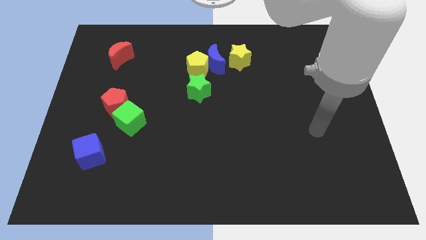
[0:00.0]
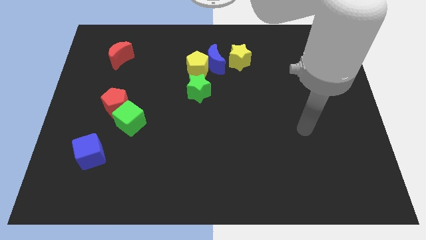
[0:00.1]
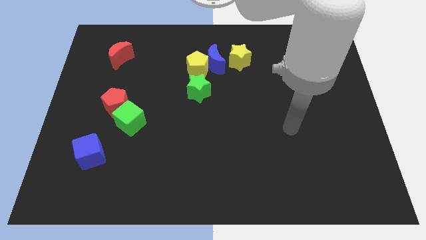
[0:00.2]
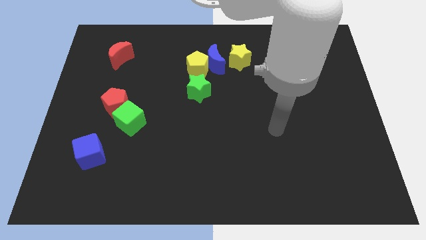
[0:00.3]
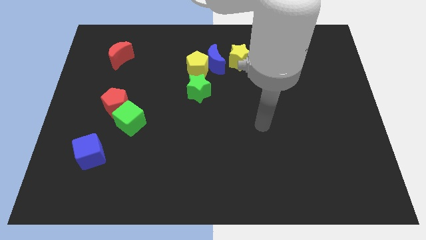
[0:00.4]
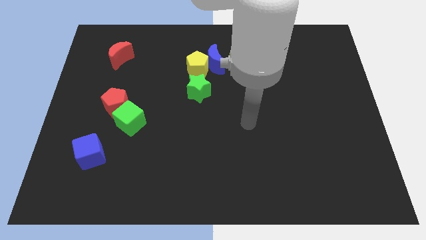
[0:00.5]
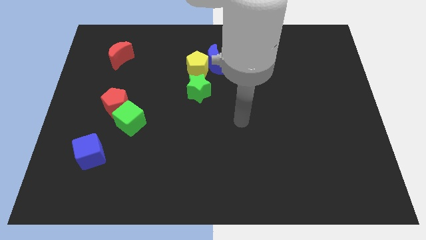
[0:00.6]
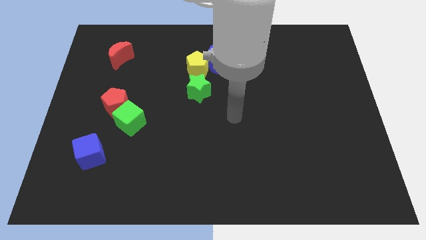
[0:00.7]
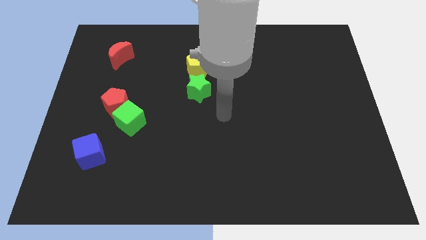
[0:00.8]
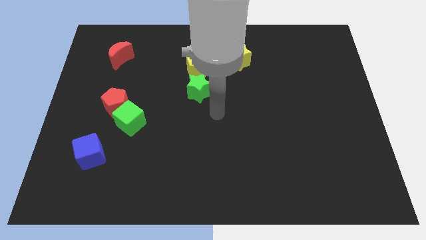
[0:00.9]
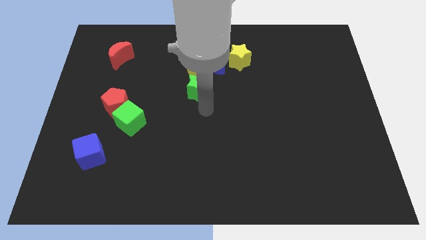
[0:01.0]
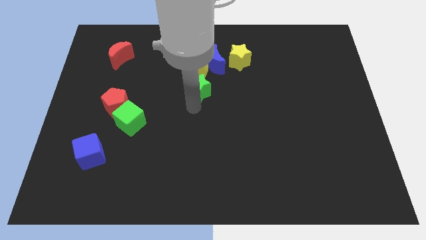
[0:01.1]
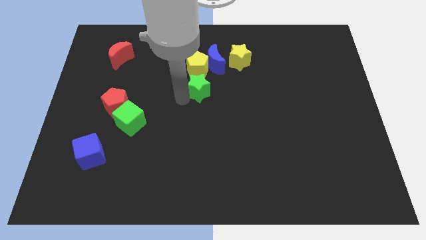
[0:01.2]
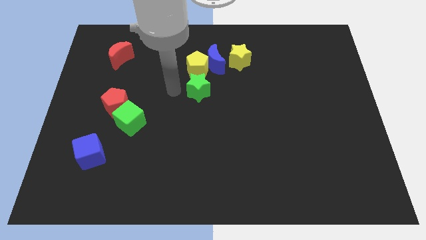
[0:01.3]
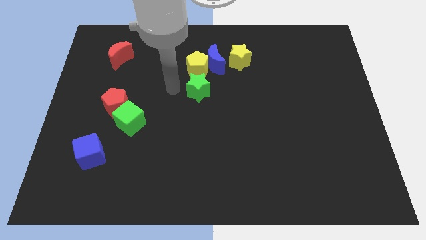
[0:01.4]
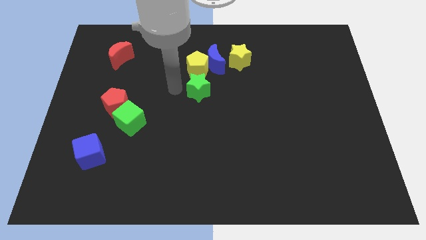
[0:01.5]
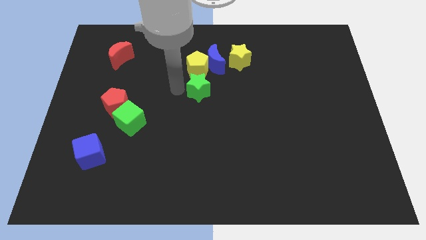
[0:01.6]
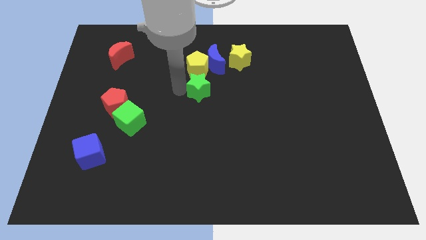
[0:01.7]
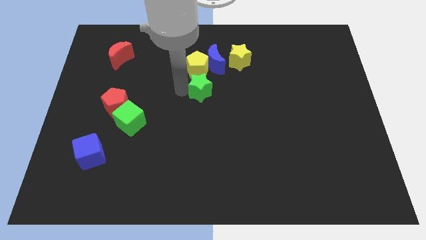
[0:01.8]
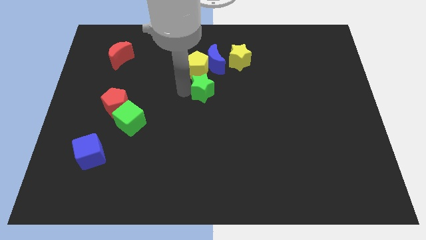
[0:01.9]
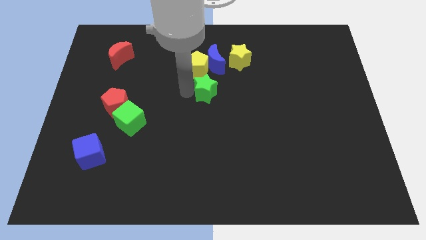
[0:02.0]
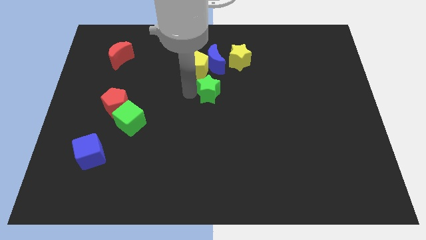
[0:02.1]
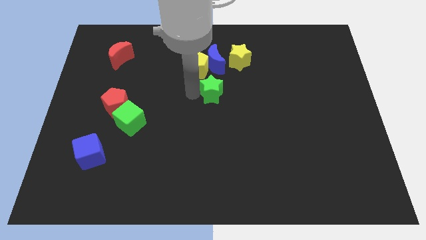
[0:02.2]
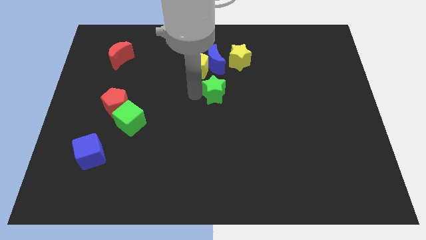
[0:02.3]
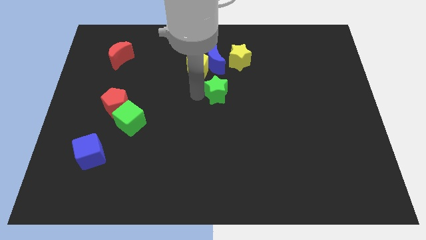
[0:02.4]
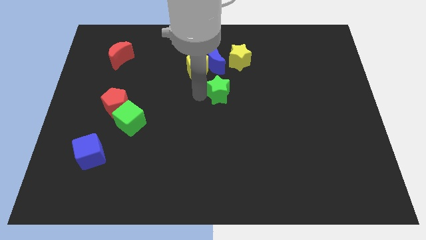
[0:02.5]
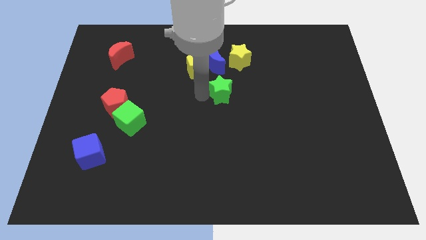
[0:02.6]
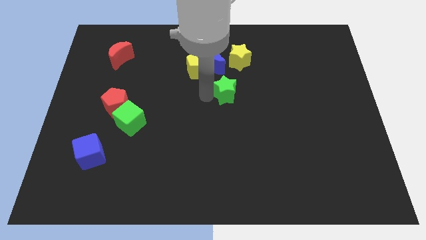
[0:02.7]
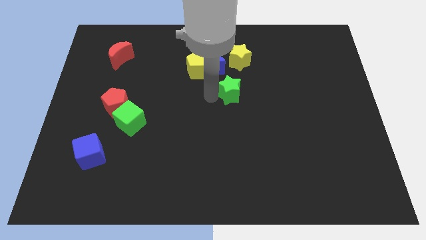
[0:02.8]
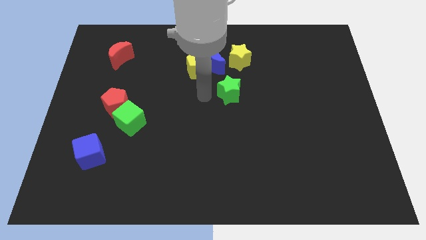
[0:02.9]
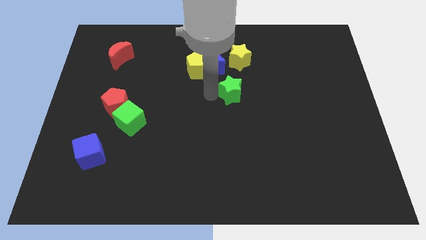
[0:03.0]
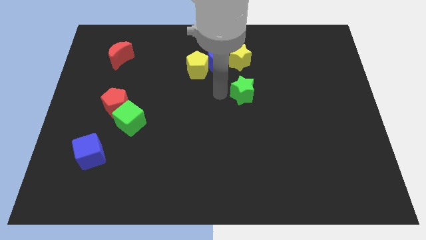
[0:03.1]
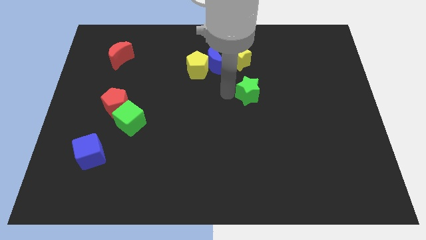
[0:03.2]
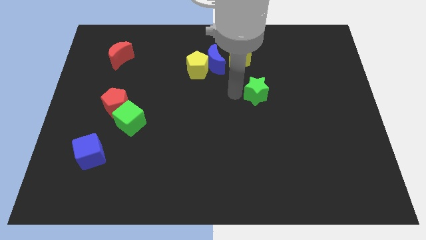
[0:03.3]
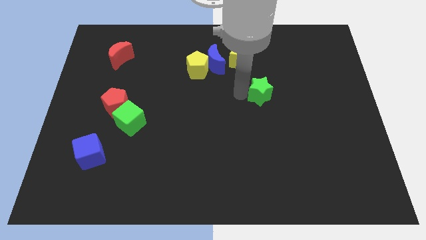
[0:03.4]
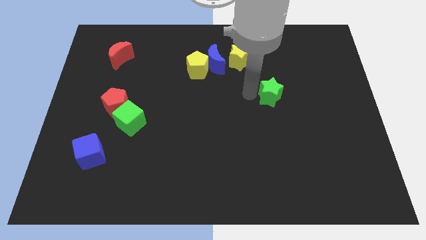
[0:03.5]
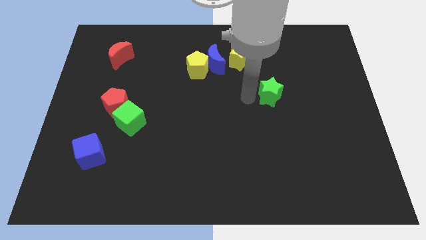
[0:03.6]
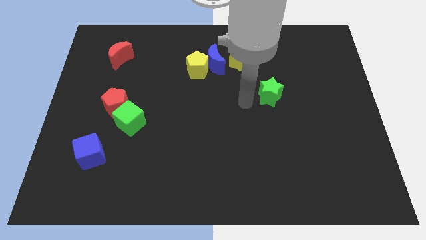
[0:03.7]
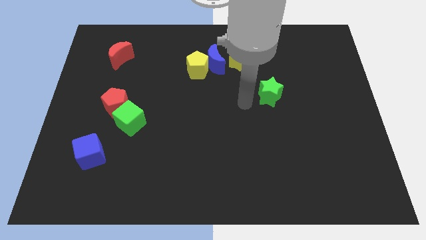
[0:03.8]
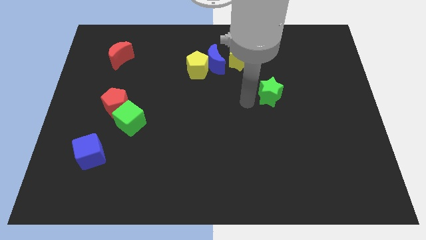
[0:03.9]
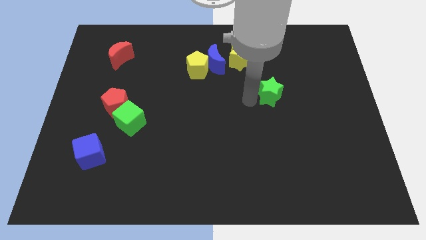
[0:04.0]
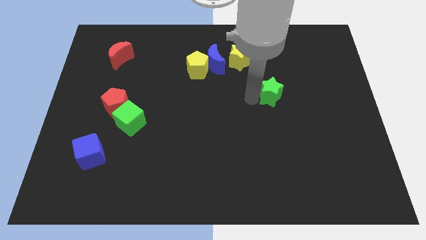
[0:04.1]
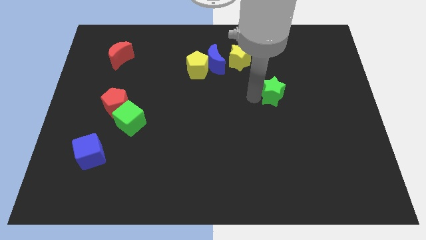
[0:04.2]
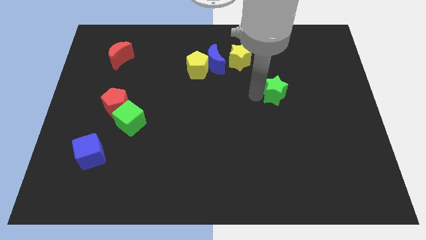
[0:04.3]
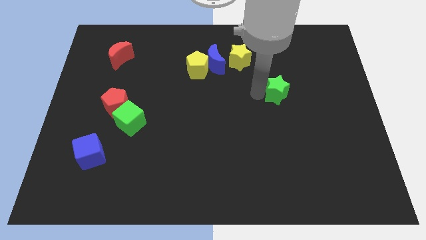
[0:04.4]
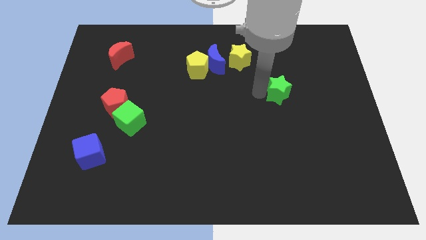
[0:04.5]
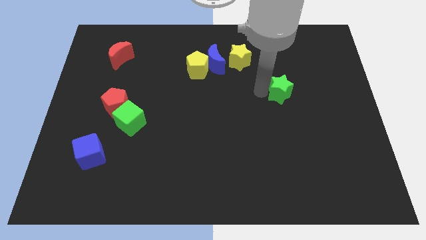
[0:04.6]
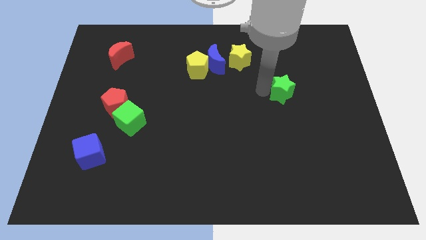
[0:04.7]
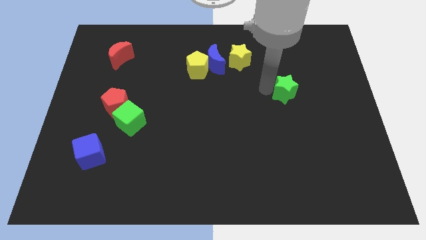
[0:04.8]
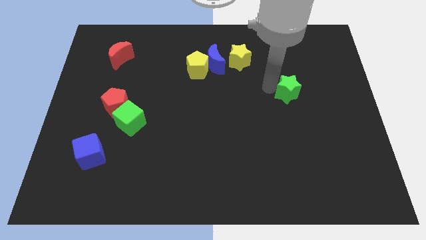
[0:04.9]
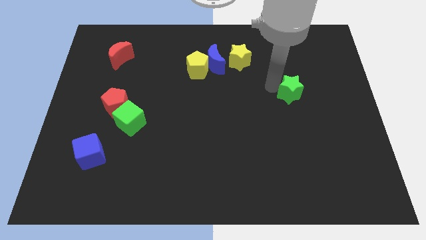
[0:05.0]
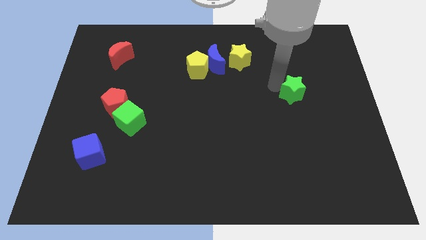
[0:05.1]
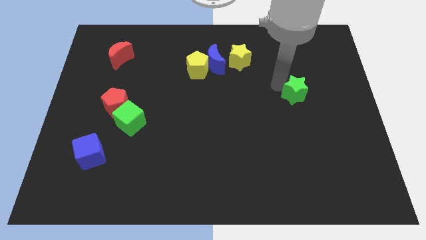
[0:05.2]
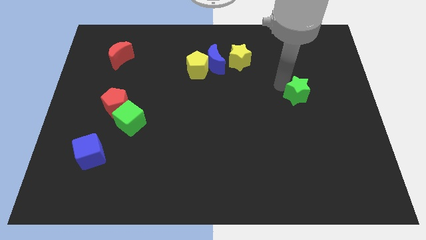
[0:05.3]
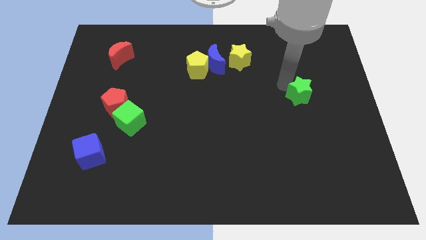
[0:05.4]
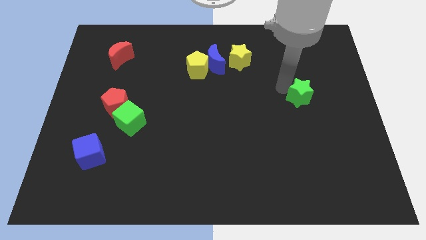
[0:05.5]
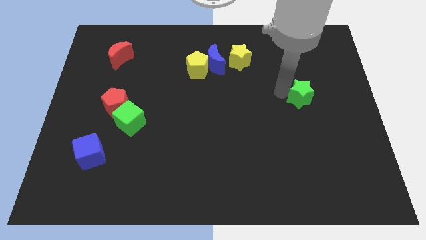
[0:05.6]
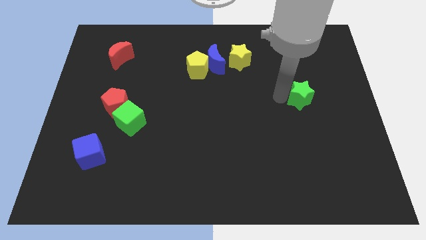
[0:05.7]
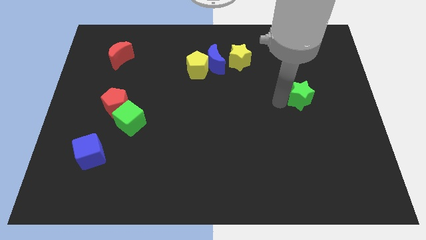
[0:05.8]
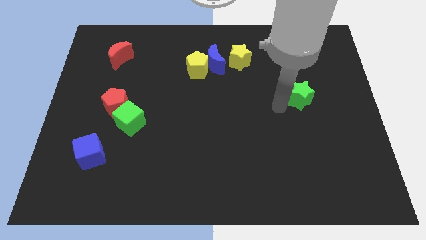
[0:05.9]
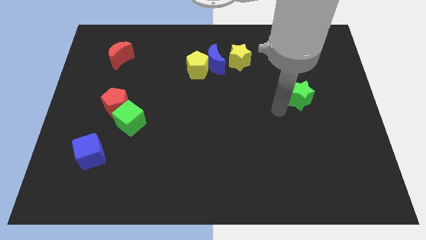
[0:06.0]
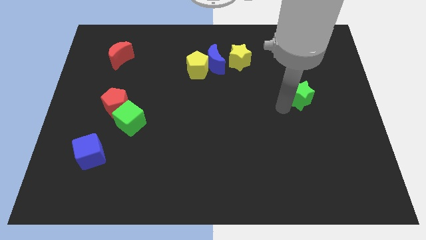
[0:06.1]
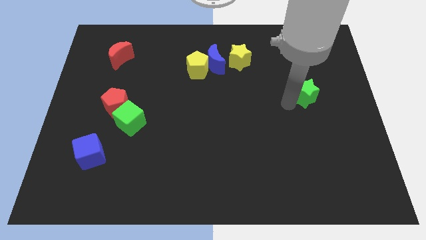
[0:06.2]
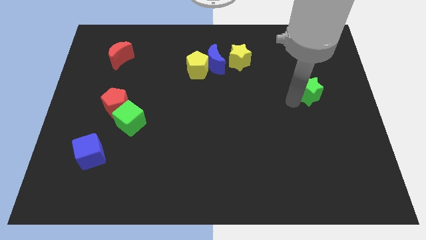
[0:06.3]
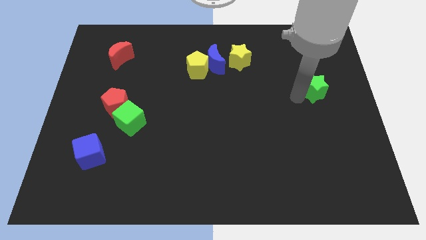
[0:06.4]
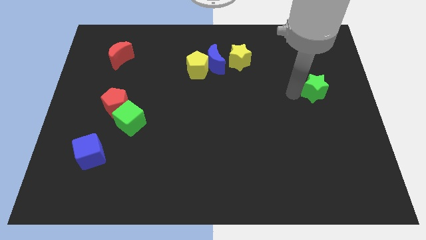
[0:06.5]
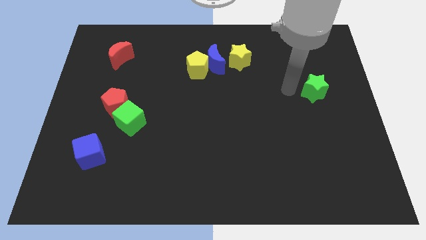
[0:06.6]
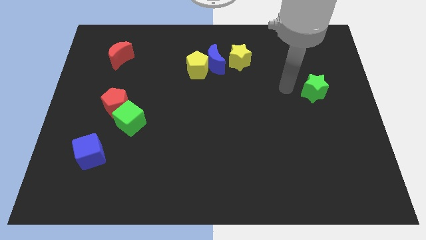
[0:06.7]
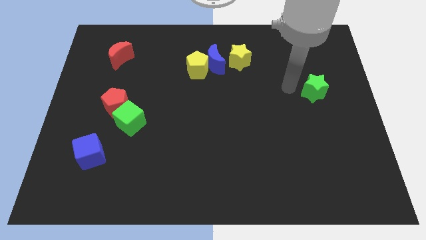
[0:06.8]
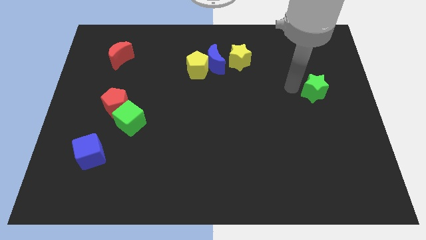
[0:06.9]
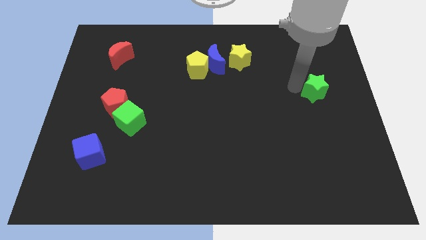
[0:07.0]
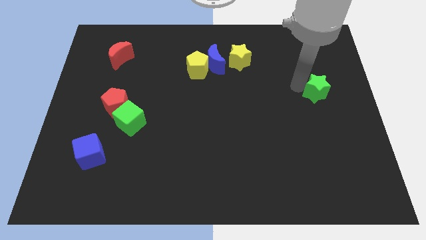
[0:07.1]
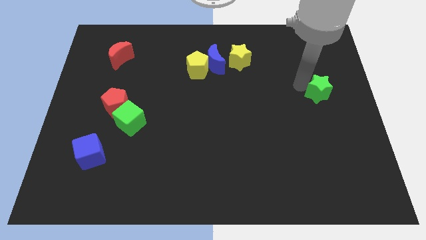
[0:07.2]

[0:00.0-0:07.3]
move the green star to the right side of the board
